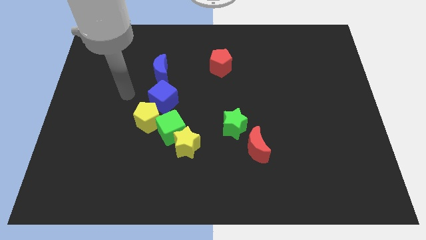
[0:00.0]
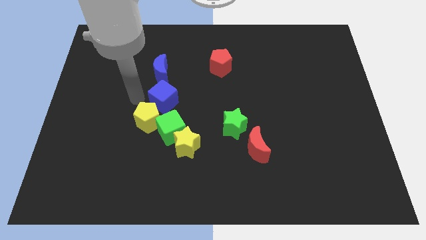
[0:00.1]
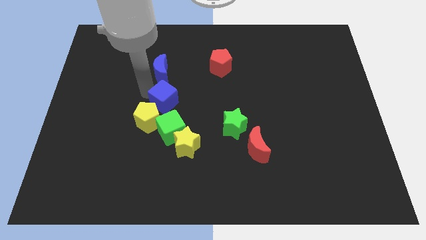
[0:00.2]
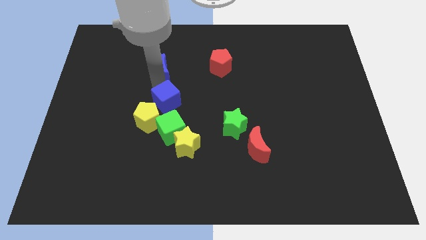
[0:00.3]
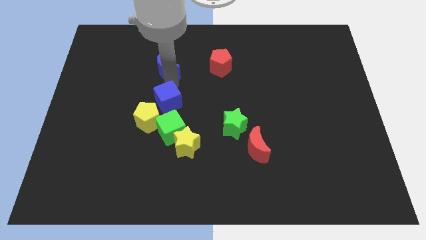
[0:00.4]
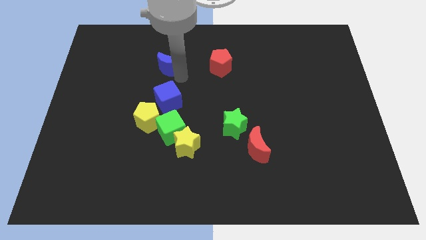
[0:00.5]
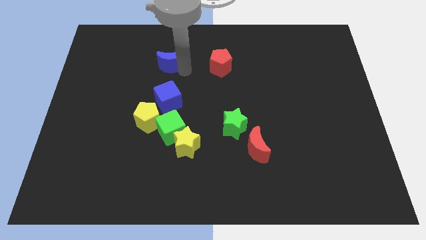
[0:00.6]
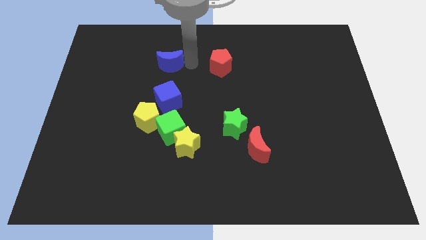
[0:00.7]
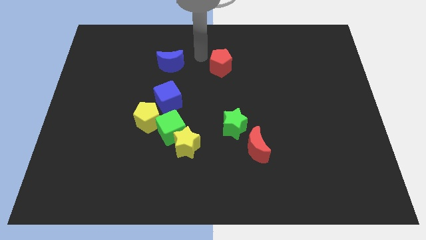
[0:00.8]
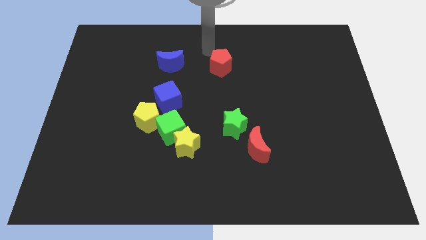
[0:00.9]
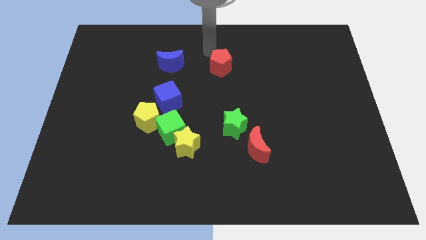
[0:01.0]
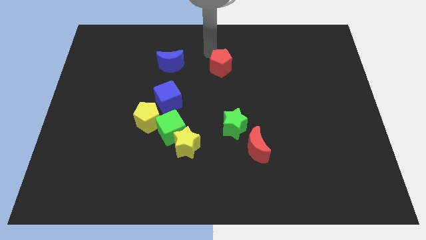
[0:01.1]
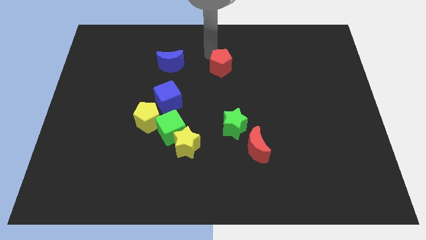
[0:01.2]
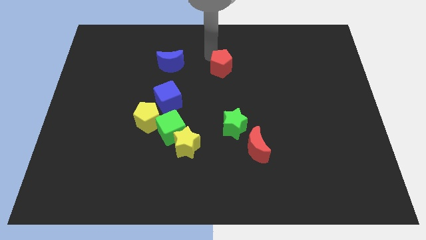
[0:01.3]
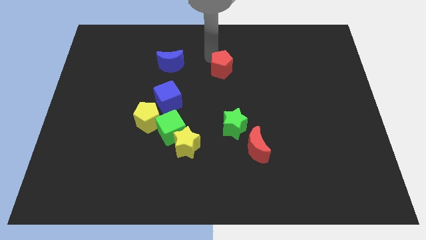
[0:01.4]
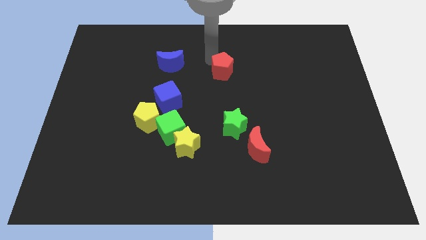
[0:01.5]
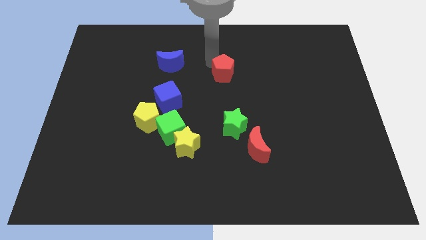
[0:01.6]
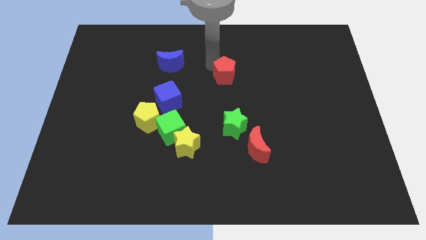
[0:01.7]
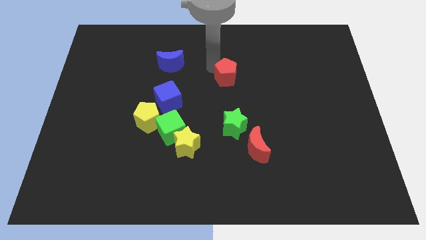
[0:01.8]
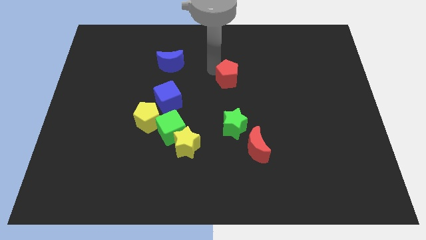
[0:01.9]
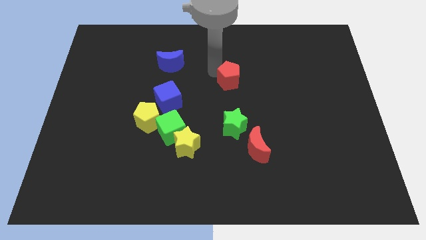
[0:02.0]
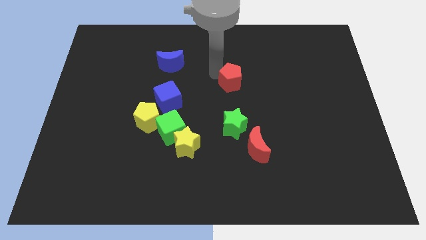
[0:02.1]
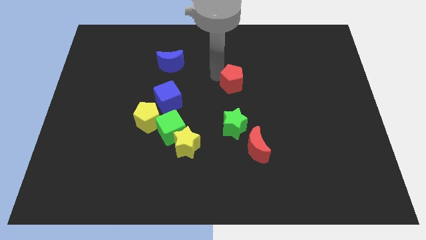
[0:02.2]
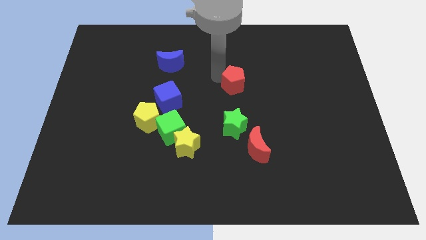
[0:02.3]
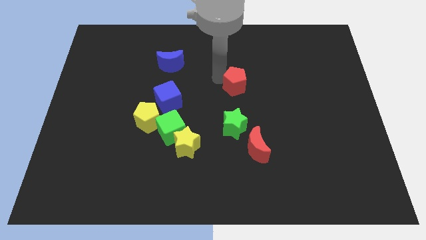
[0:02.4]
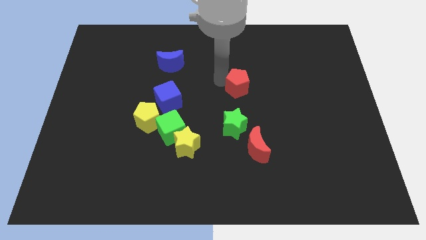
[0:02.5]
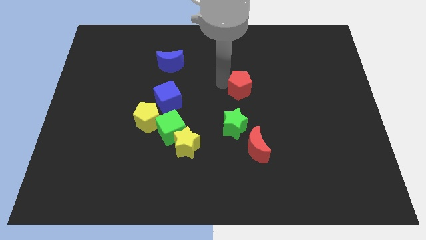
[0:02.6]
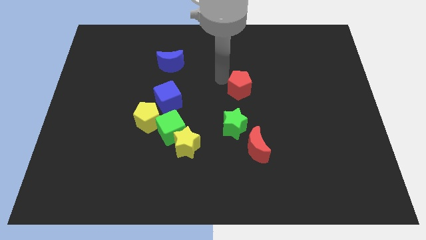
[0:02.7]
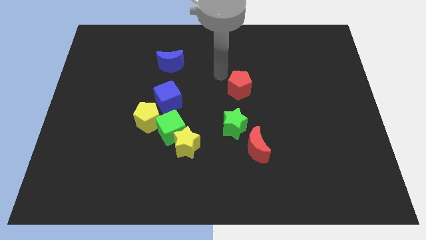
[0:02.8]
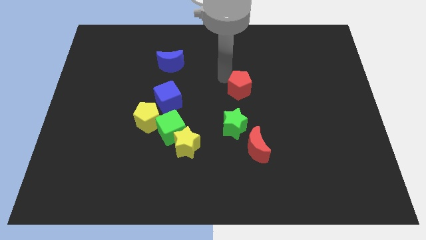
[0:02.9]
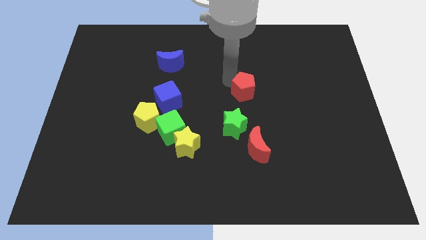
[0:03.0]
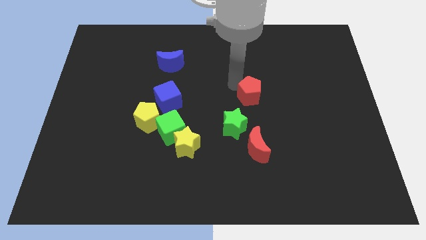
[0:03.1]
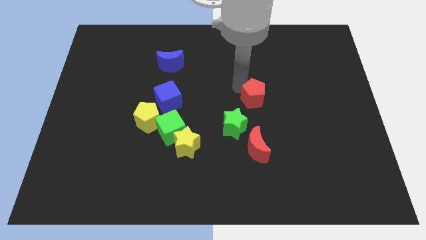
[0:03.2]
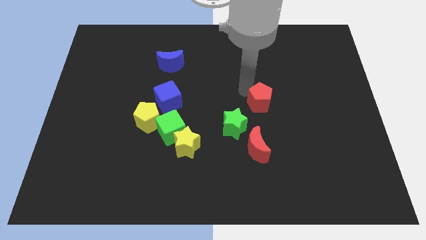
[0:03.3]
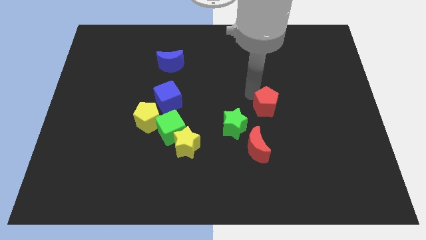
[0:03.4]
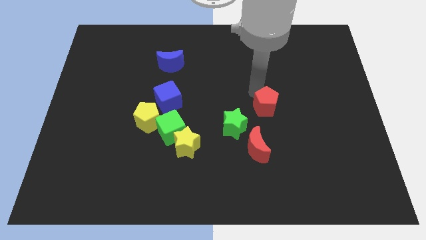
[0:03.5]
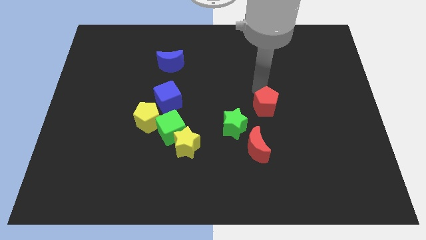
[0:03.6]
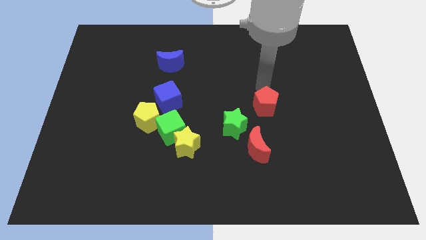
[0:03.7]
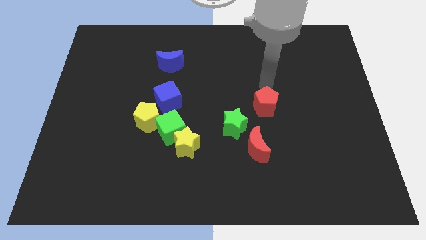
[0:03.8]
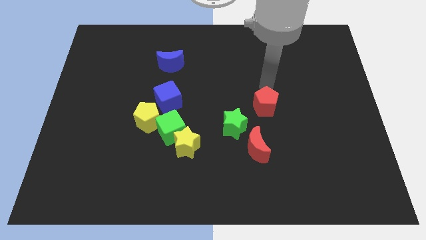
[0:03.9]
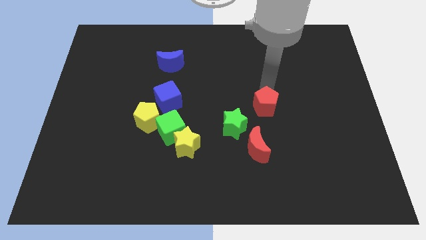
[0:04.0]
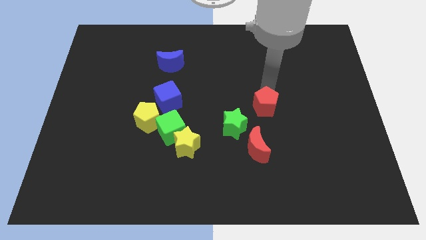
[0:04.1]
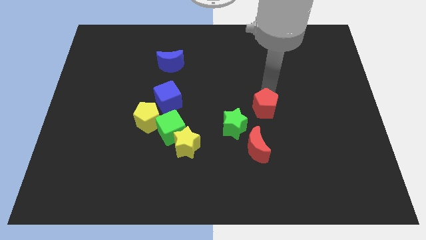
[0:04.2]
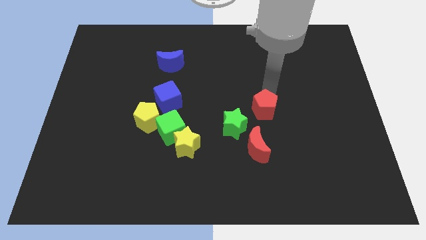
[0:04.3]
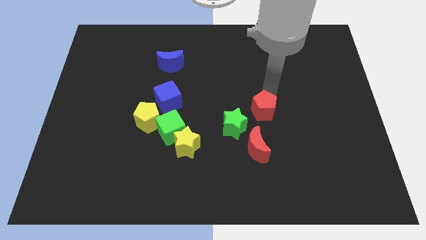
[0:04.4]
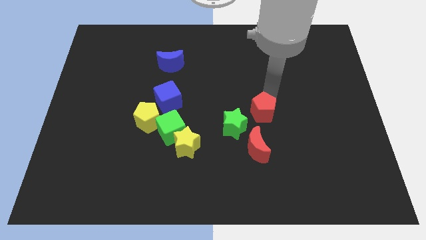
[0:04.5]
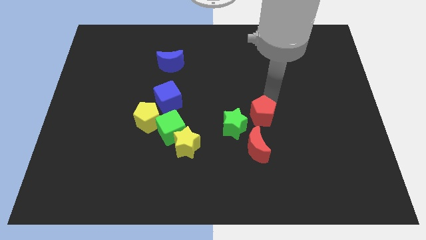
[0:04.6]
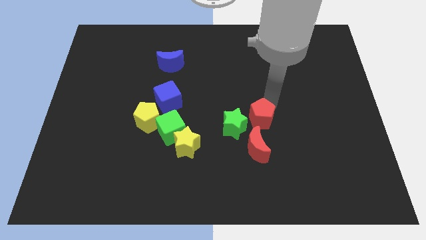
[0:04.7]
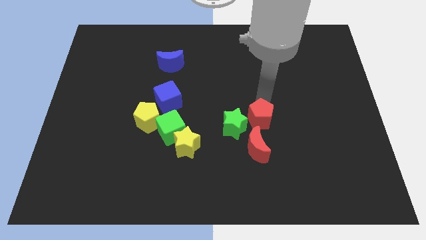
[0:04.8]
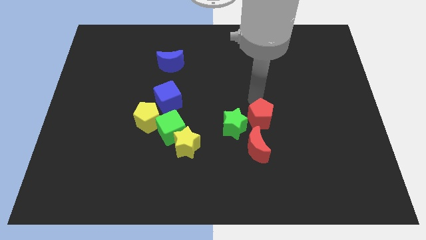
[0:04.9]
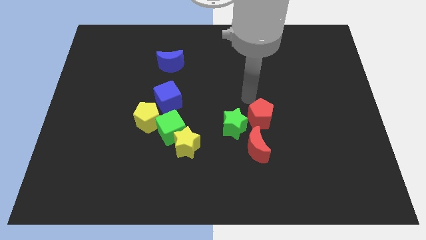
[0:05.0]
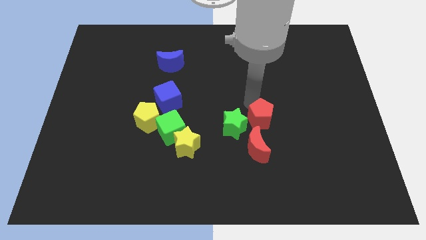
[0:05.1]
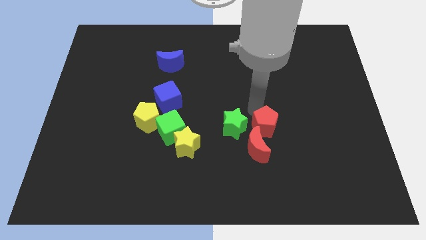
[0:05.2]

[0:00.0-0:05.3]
put the red pentagon diagonally down and to the right of the green star

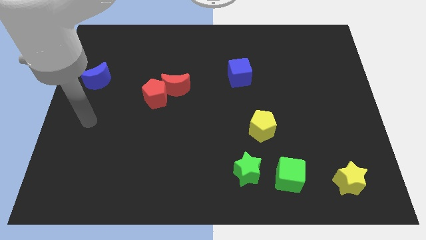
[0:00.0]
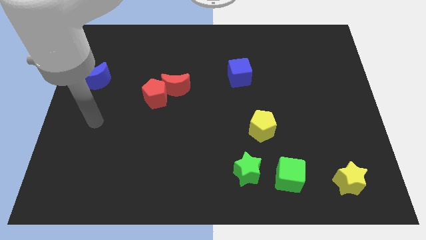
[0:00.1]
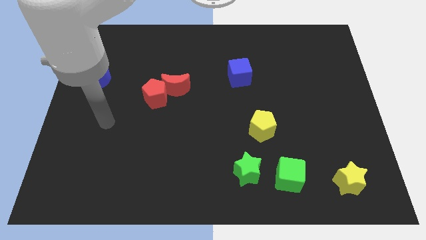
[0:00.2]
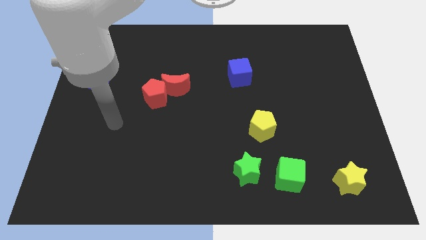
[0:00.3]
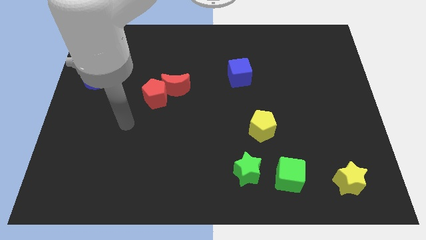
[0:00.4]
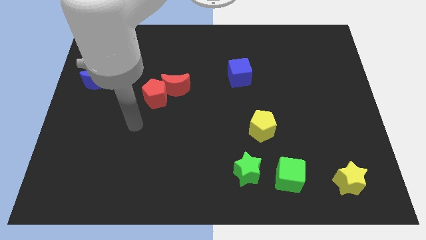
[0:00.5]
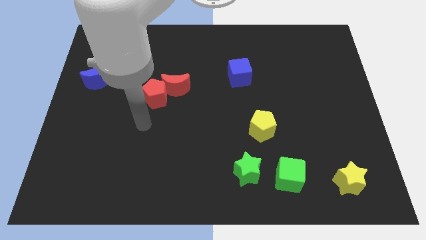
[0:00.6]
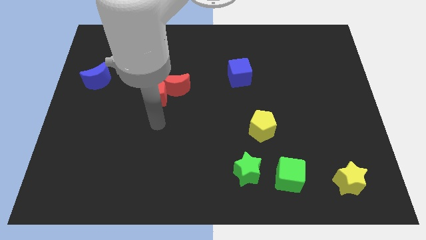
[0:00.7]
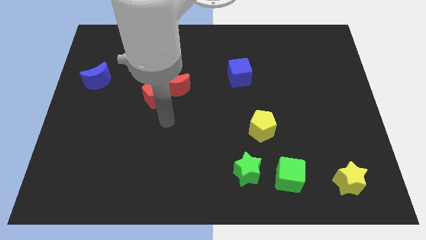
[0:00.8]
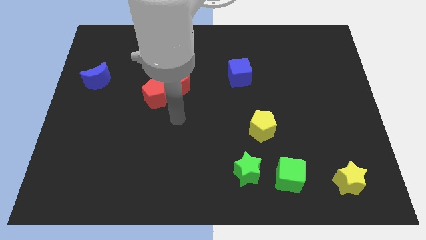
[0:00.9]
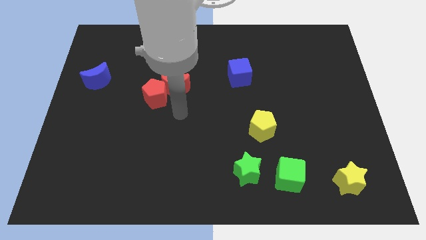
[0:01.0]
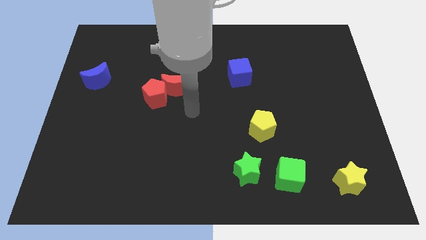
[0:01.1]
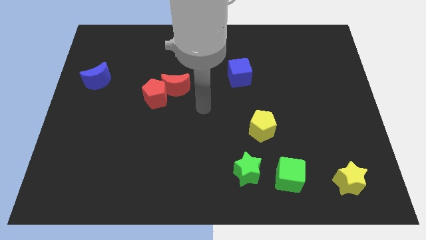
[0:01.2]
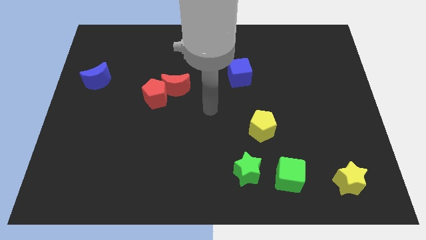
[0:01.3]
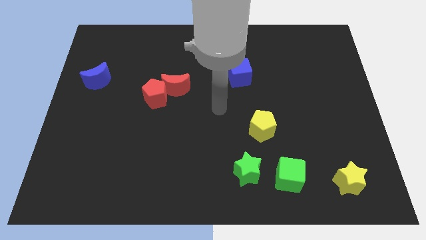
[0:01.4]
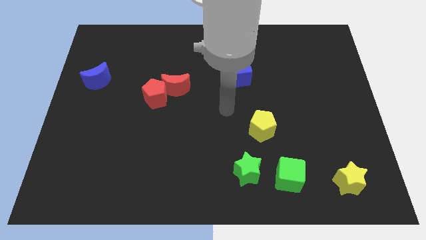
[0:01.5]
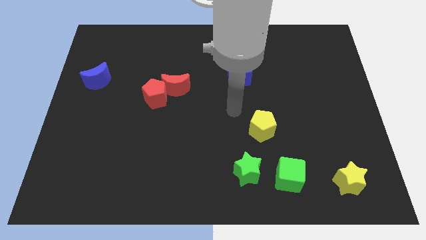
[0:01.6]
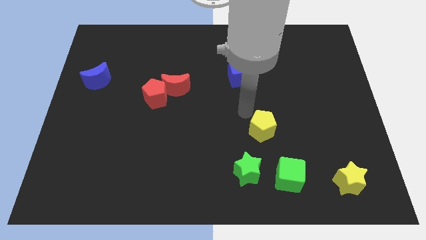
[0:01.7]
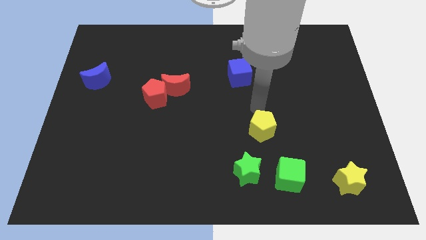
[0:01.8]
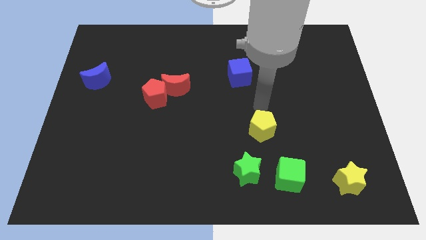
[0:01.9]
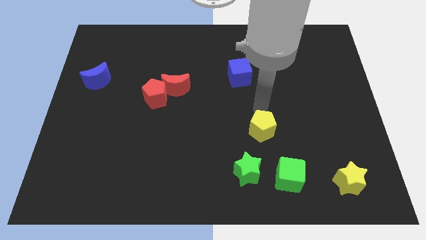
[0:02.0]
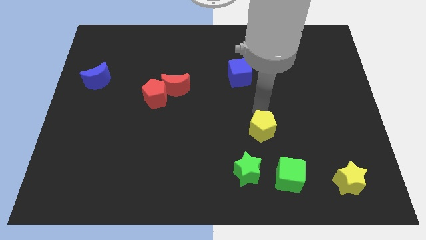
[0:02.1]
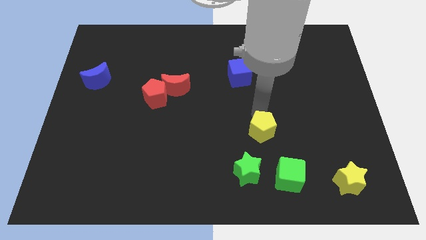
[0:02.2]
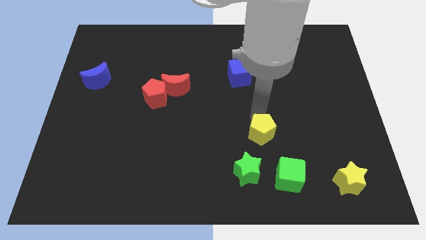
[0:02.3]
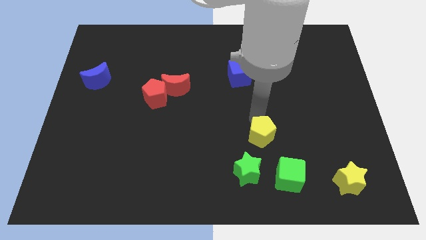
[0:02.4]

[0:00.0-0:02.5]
put the yellow pentagon diagonally up and to the left of the green cube
